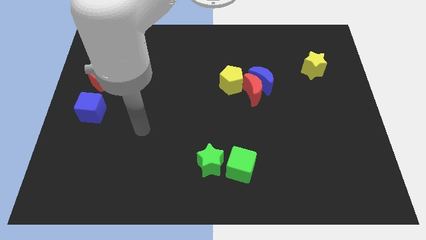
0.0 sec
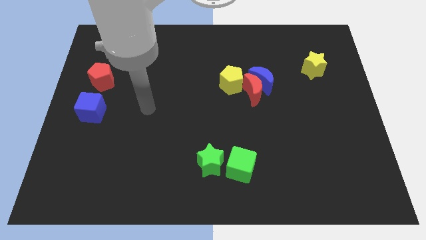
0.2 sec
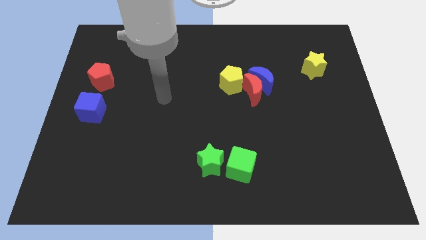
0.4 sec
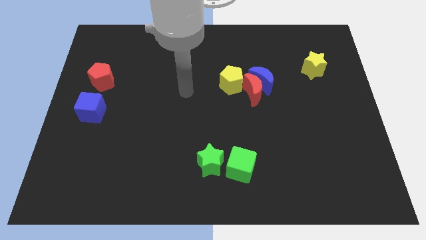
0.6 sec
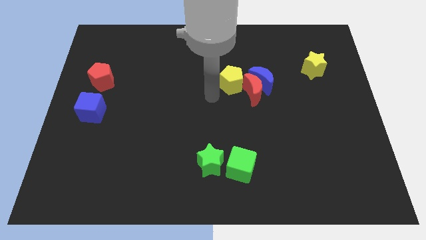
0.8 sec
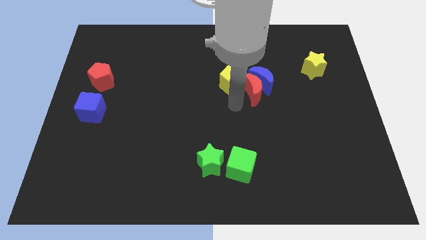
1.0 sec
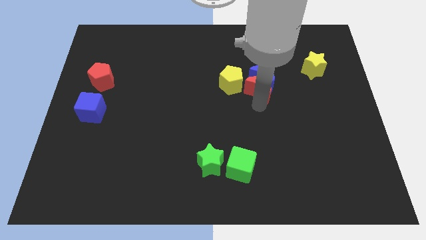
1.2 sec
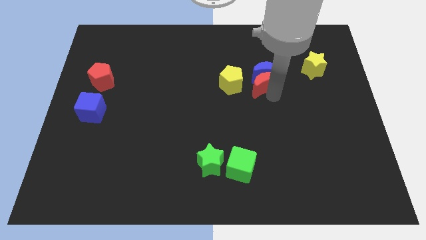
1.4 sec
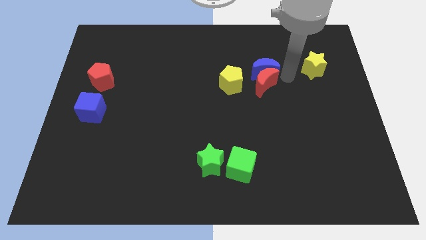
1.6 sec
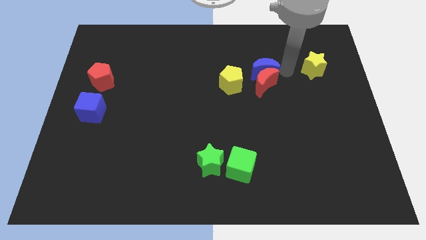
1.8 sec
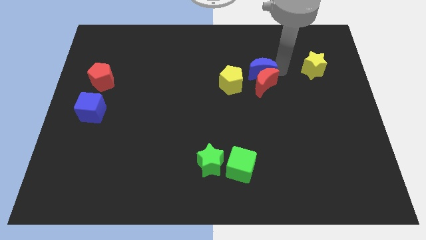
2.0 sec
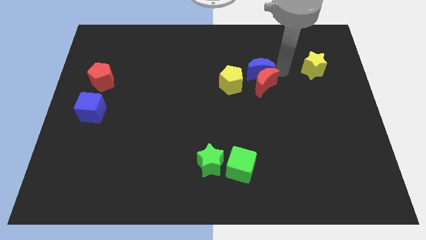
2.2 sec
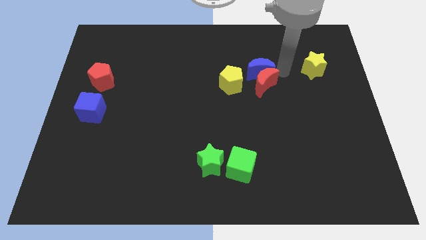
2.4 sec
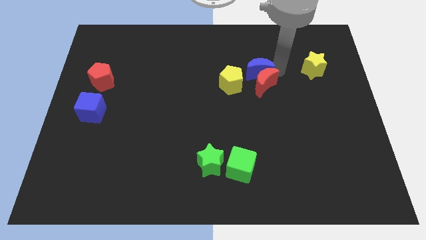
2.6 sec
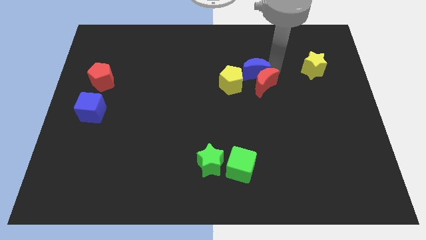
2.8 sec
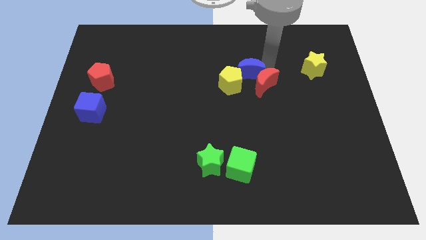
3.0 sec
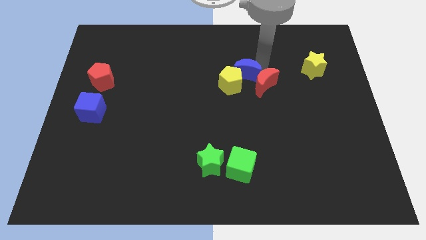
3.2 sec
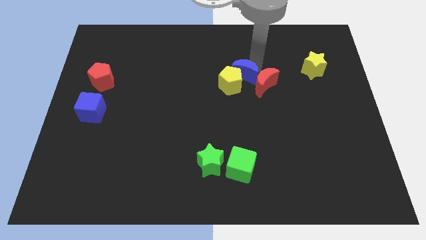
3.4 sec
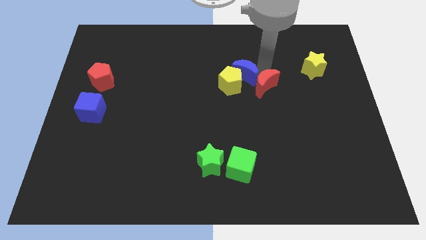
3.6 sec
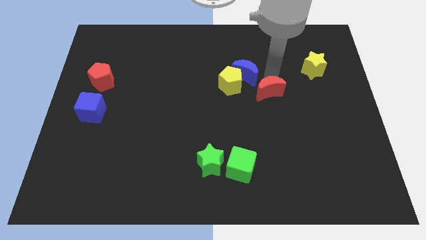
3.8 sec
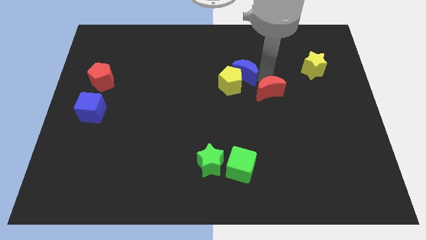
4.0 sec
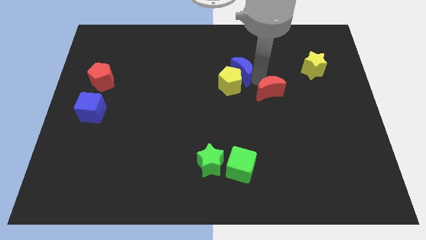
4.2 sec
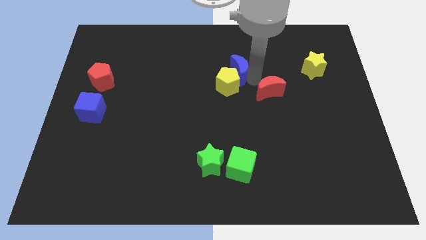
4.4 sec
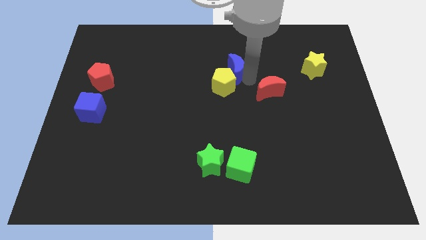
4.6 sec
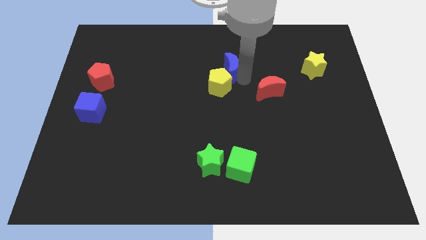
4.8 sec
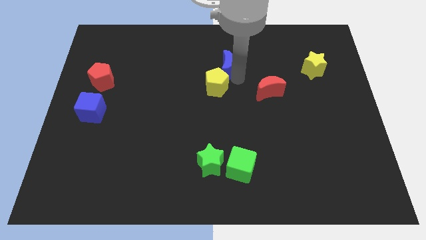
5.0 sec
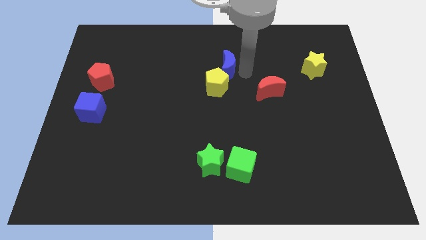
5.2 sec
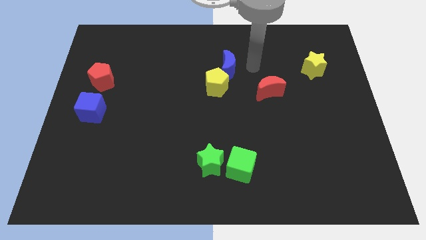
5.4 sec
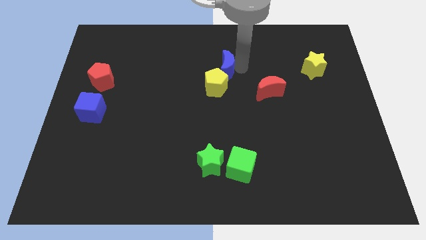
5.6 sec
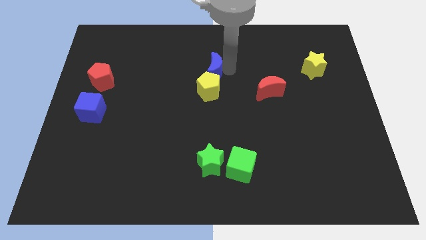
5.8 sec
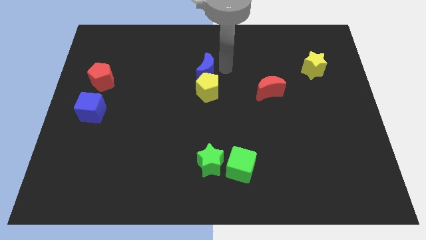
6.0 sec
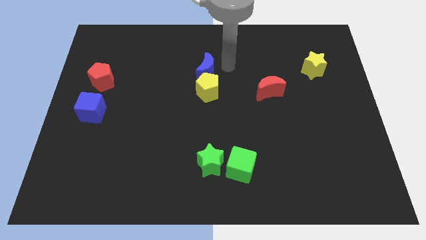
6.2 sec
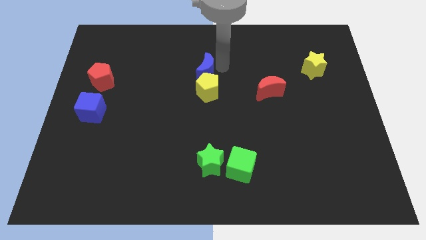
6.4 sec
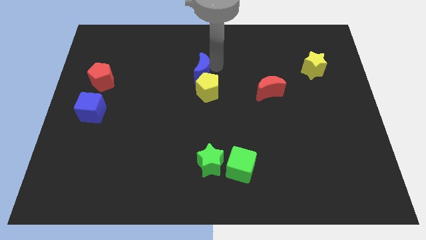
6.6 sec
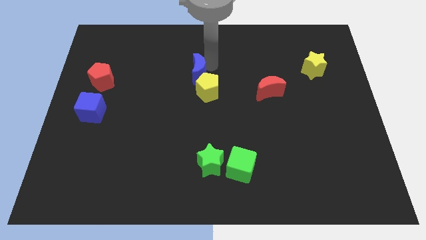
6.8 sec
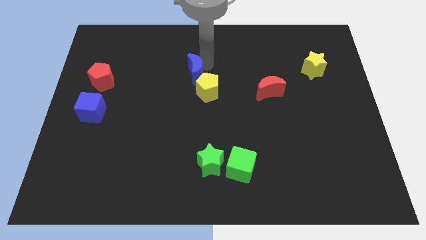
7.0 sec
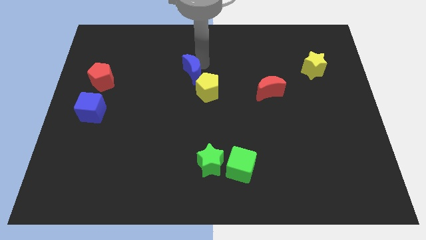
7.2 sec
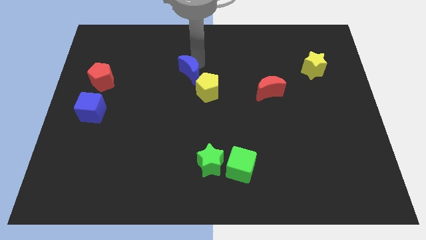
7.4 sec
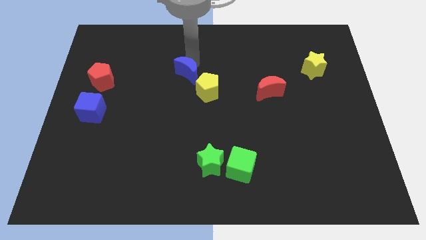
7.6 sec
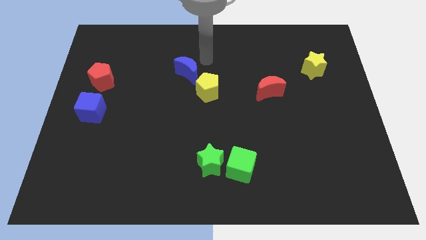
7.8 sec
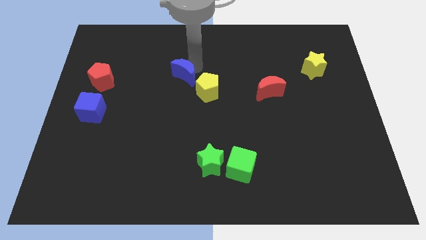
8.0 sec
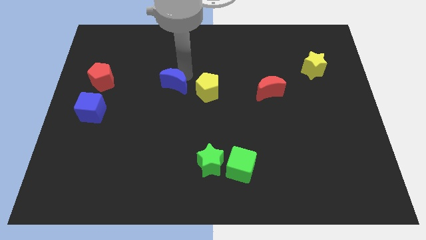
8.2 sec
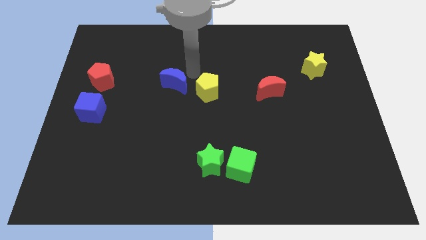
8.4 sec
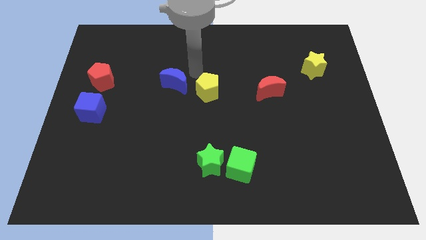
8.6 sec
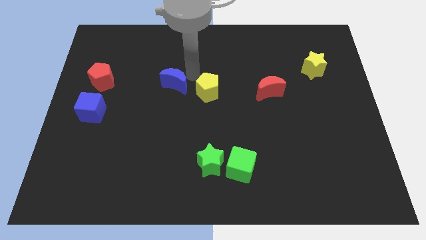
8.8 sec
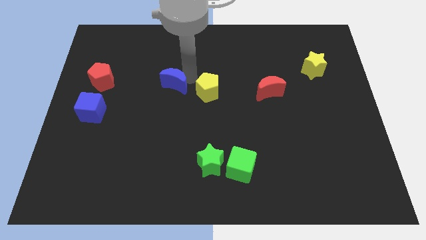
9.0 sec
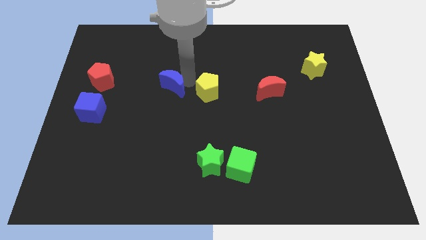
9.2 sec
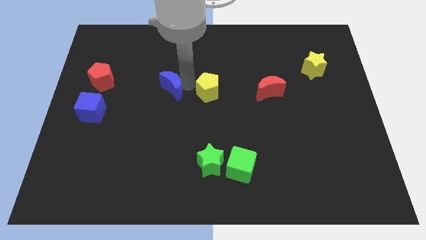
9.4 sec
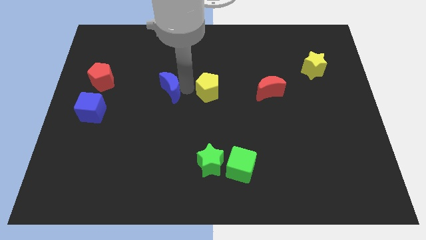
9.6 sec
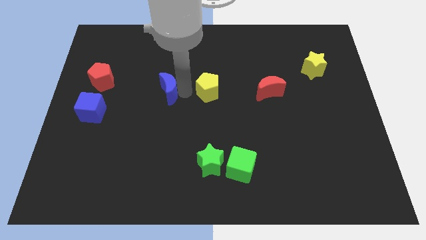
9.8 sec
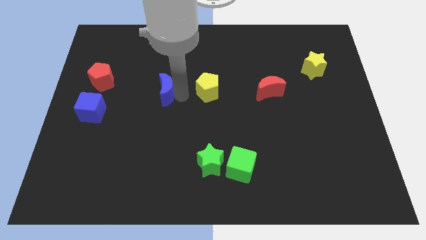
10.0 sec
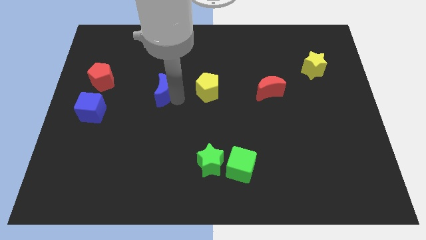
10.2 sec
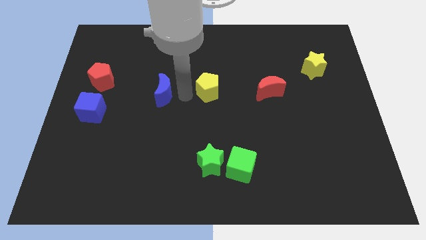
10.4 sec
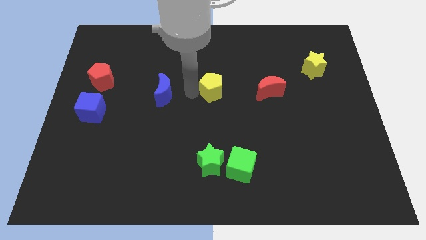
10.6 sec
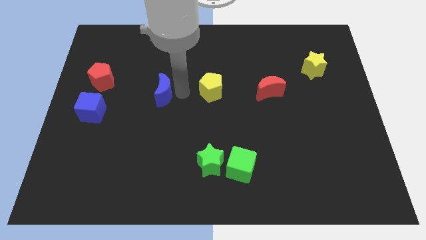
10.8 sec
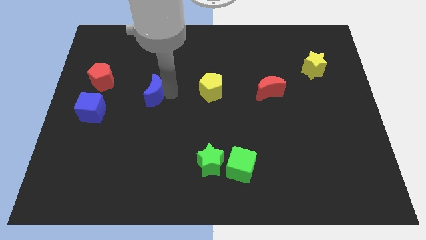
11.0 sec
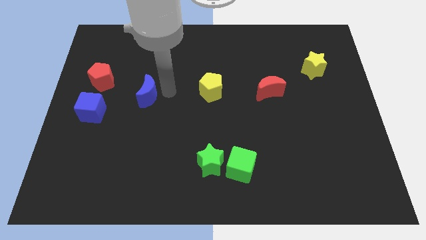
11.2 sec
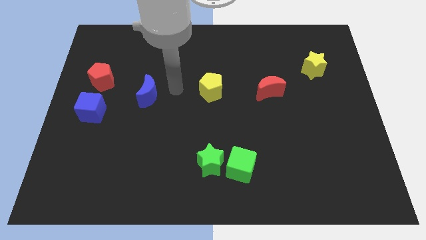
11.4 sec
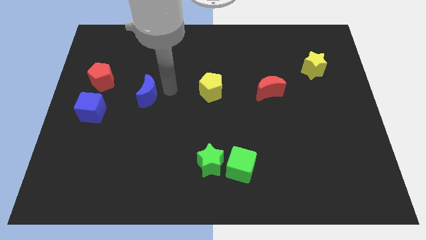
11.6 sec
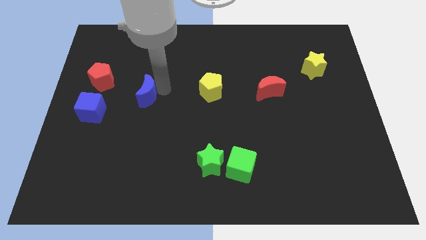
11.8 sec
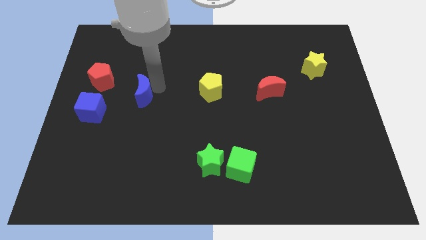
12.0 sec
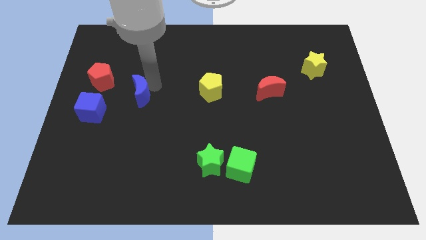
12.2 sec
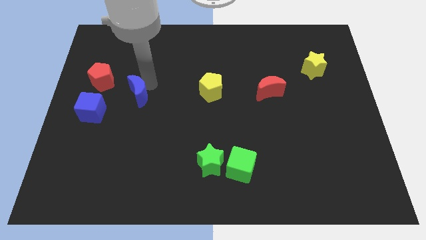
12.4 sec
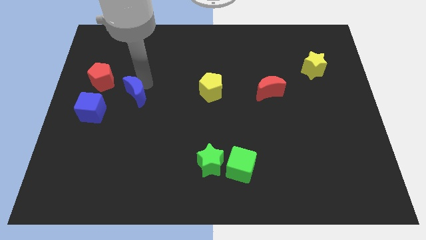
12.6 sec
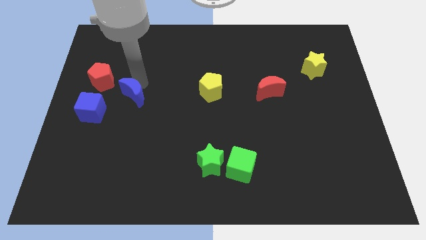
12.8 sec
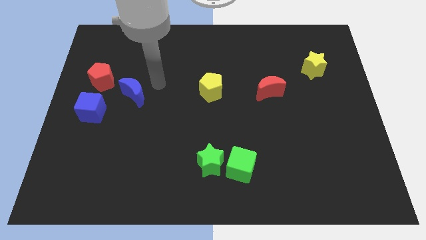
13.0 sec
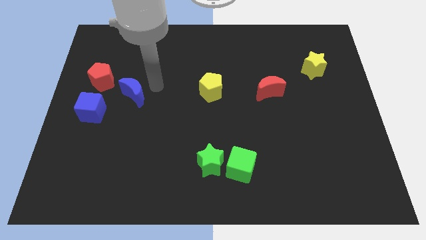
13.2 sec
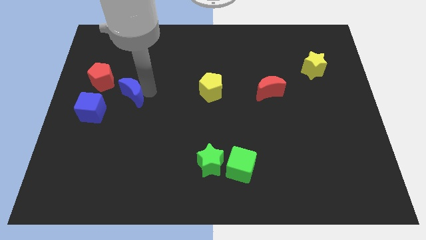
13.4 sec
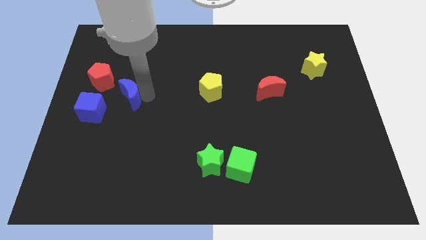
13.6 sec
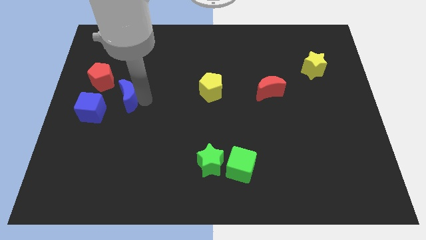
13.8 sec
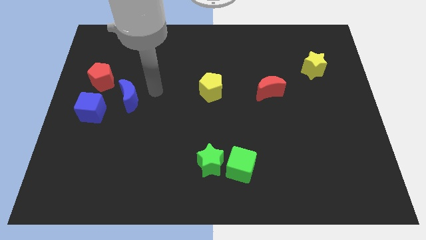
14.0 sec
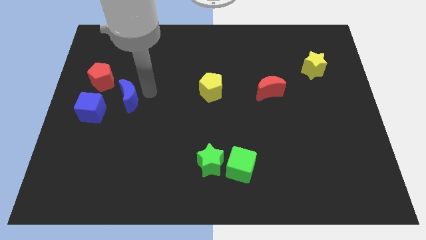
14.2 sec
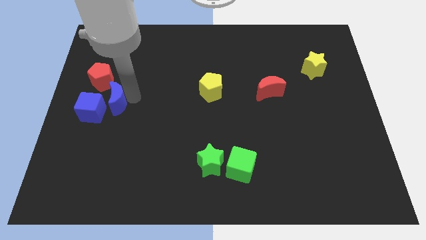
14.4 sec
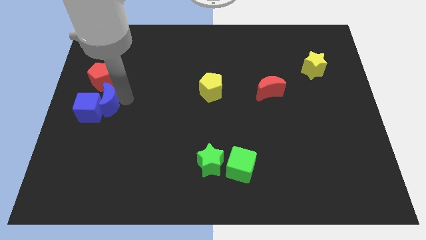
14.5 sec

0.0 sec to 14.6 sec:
put the blue moon to the blue cube

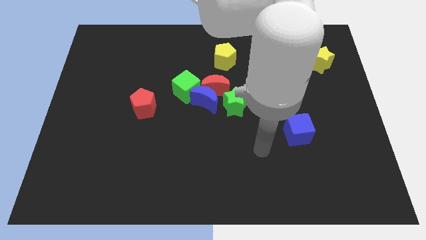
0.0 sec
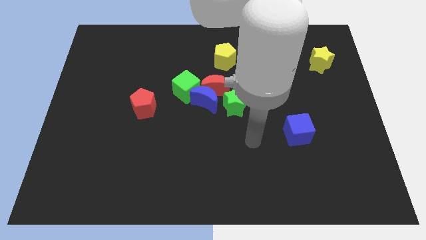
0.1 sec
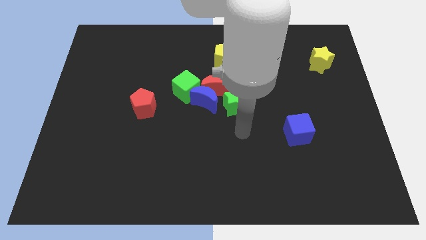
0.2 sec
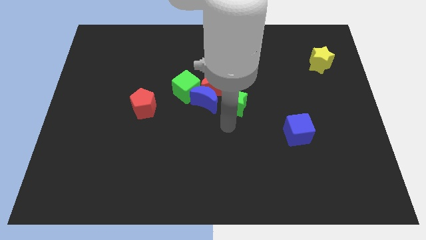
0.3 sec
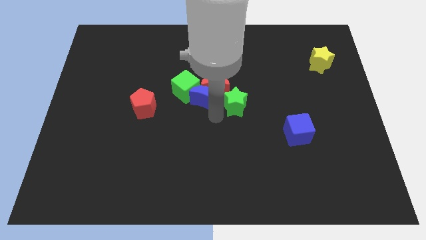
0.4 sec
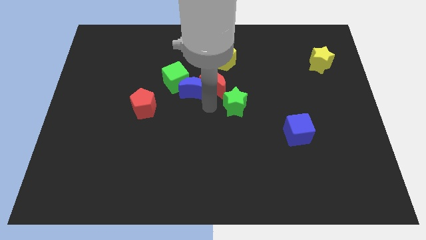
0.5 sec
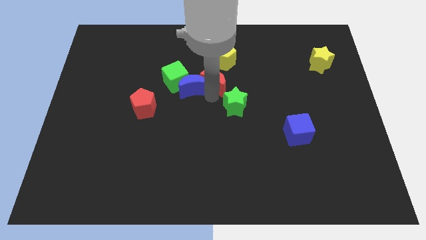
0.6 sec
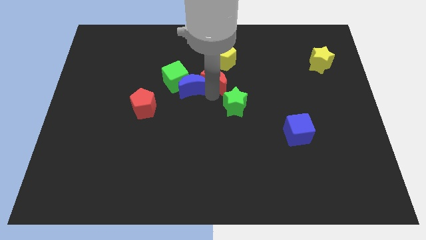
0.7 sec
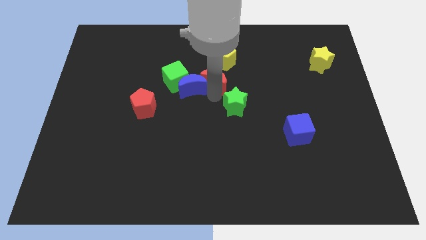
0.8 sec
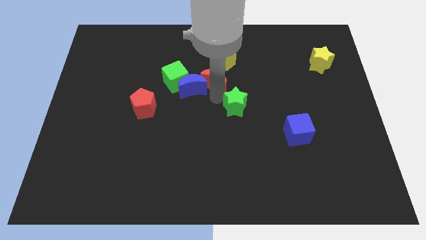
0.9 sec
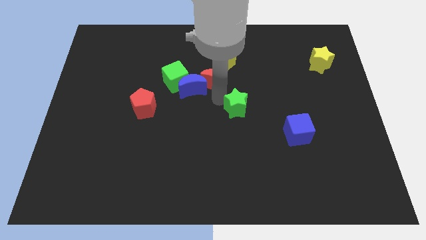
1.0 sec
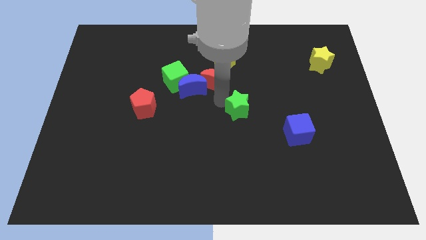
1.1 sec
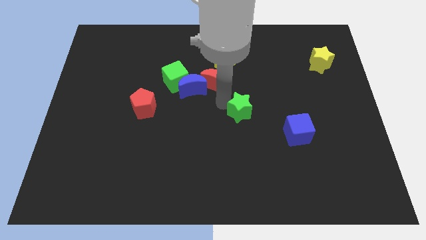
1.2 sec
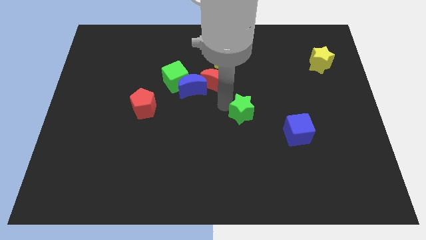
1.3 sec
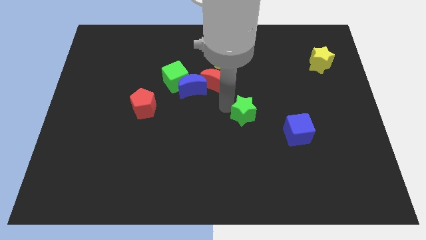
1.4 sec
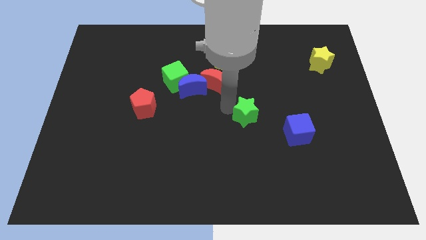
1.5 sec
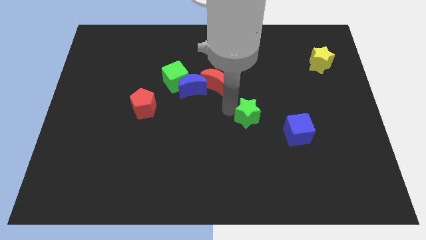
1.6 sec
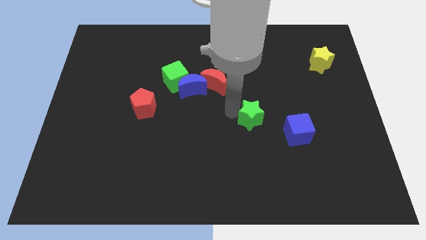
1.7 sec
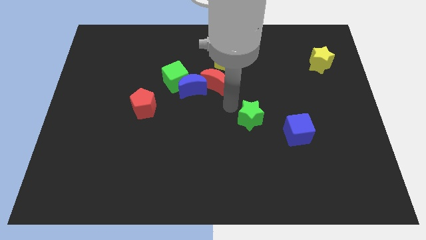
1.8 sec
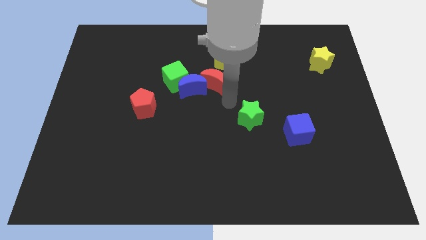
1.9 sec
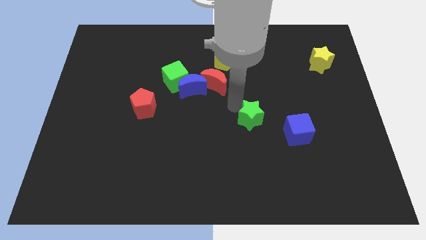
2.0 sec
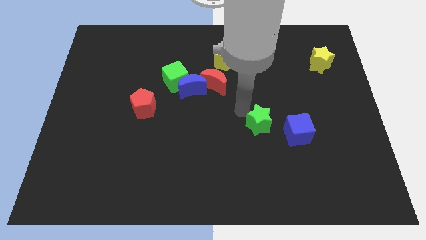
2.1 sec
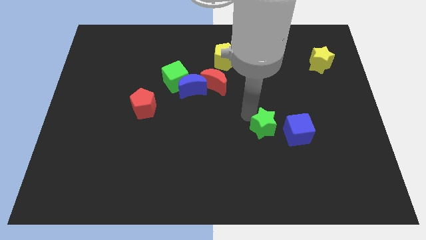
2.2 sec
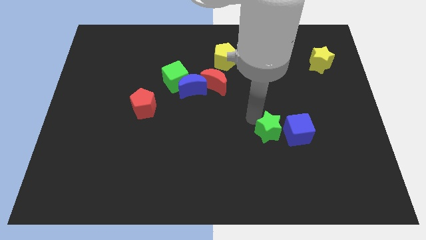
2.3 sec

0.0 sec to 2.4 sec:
put the green star towards the blue cube
